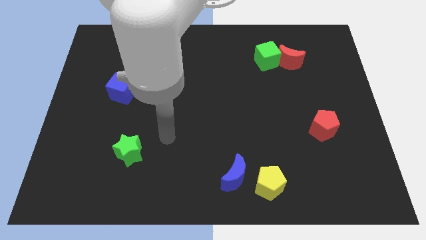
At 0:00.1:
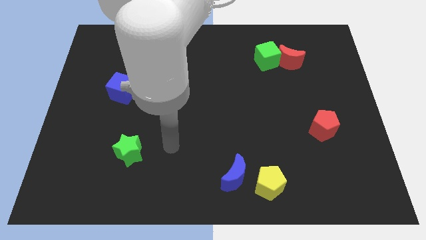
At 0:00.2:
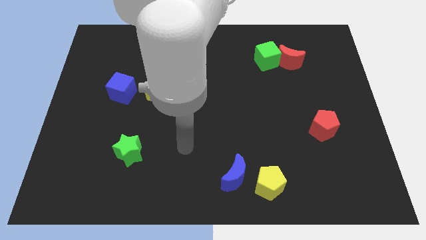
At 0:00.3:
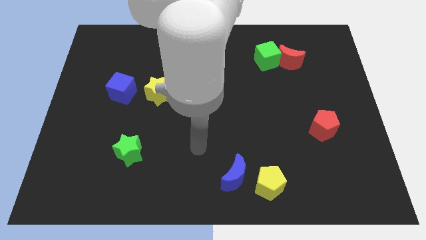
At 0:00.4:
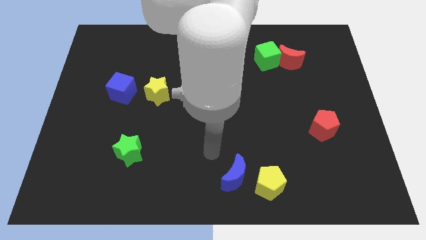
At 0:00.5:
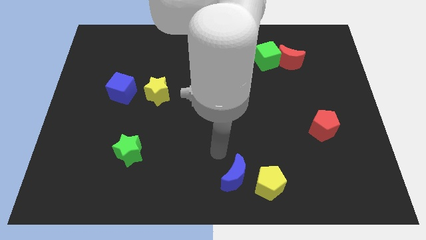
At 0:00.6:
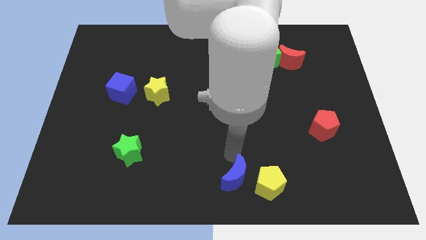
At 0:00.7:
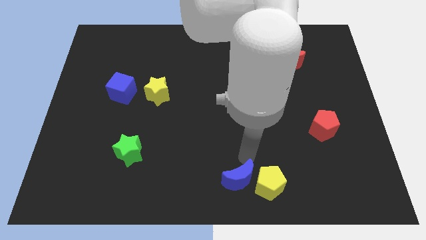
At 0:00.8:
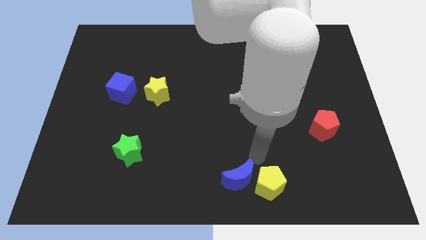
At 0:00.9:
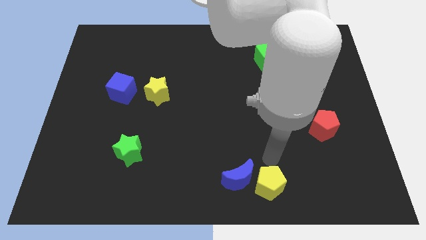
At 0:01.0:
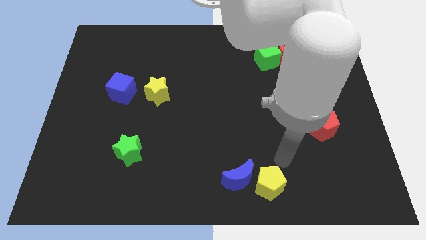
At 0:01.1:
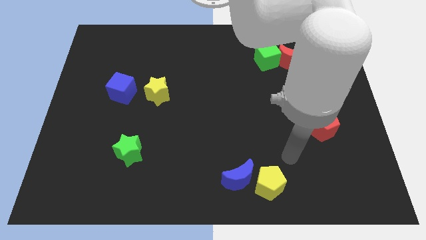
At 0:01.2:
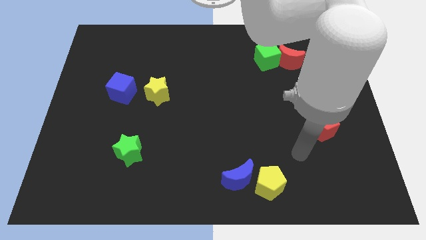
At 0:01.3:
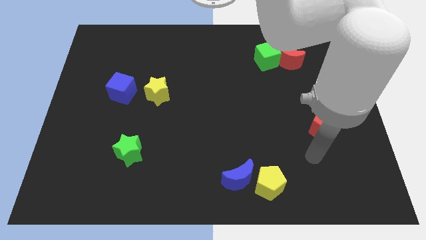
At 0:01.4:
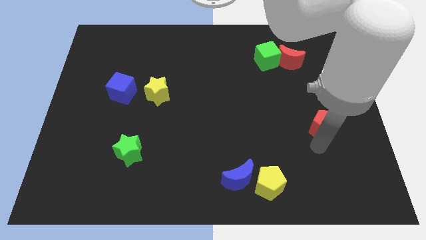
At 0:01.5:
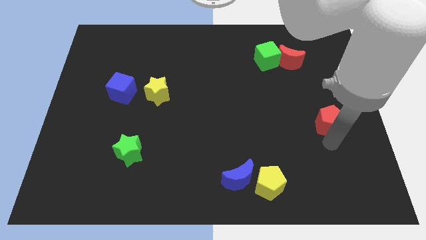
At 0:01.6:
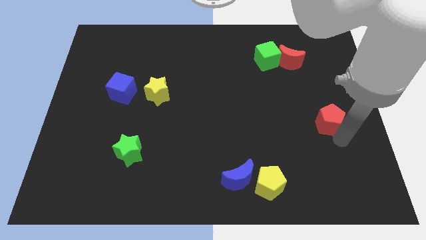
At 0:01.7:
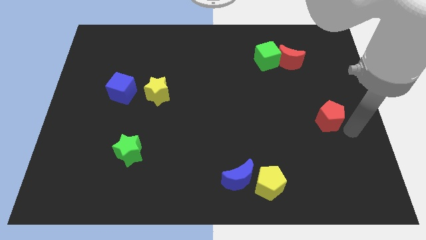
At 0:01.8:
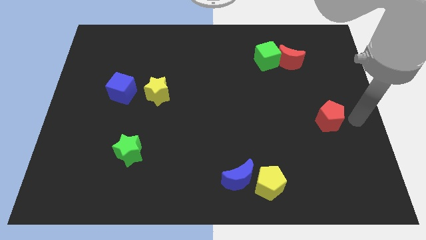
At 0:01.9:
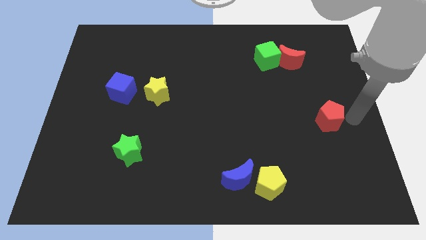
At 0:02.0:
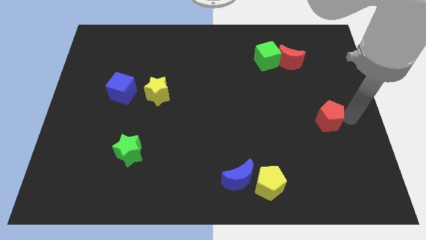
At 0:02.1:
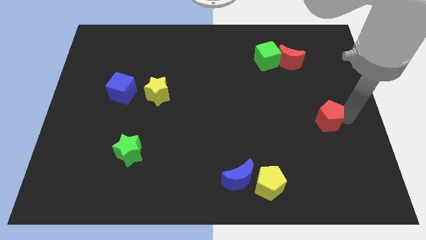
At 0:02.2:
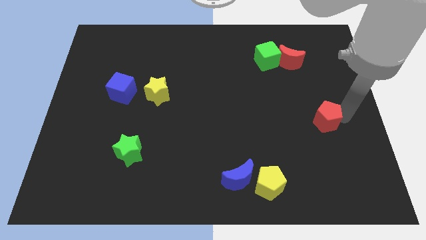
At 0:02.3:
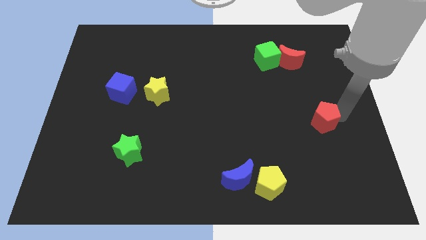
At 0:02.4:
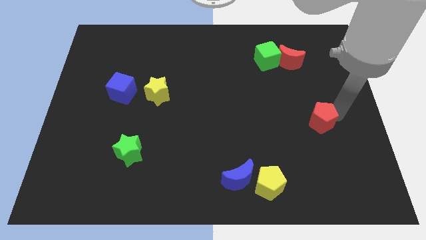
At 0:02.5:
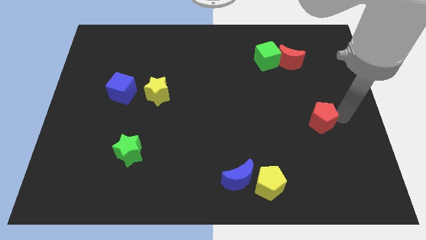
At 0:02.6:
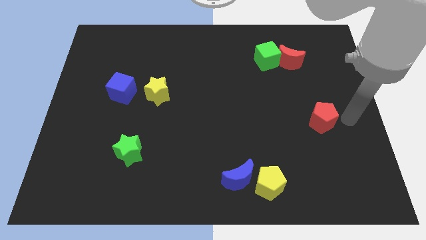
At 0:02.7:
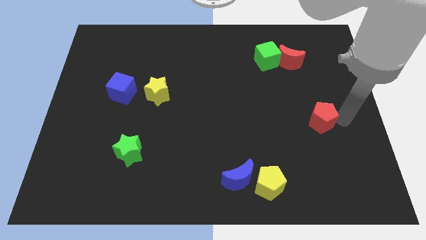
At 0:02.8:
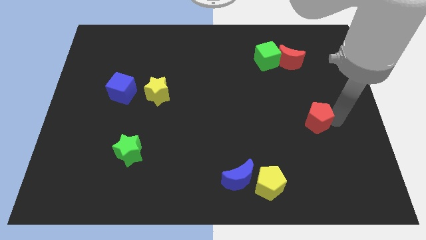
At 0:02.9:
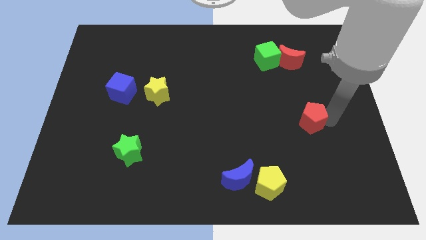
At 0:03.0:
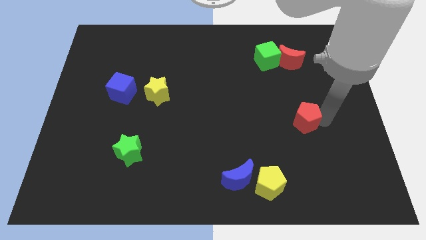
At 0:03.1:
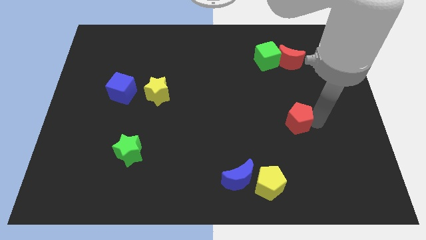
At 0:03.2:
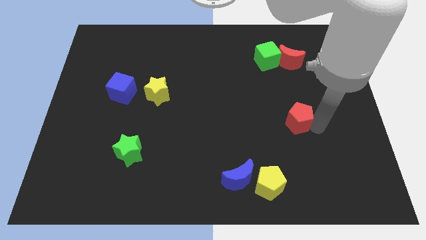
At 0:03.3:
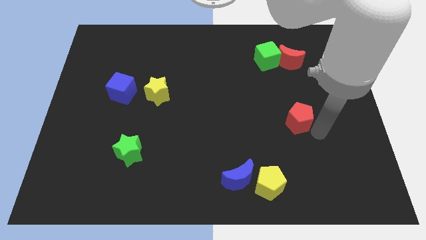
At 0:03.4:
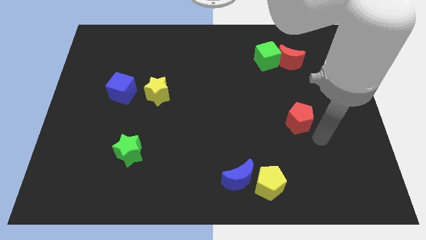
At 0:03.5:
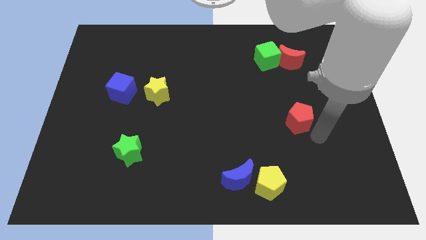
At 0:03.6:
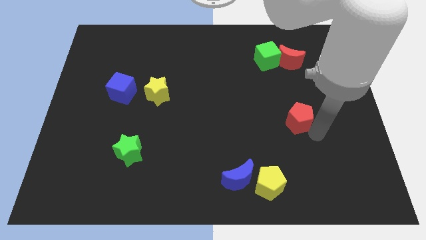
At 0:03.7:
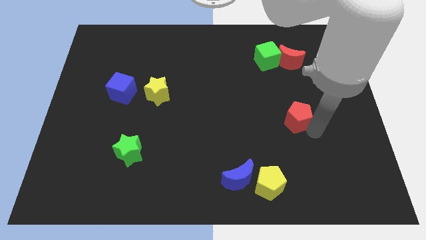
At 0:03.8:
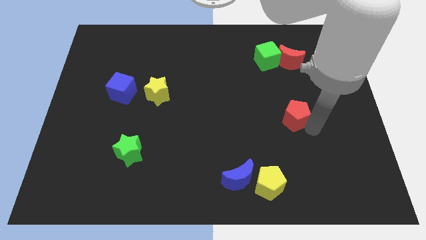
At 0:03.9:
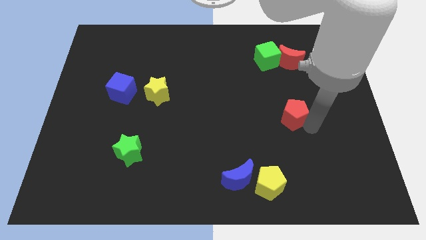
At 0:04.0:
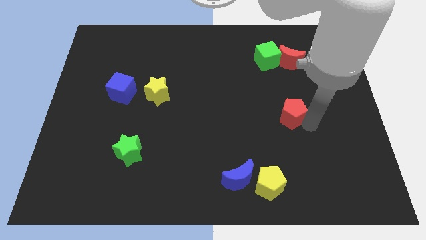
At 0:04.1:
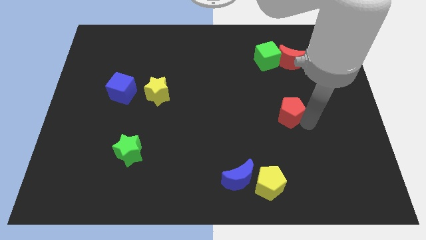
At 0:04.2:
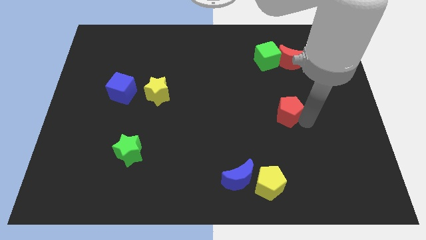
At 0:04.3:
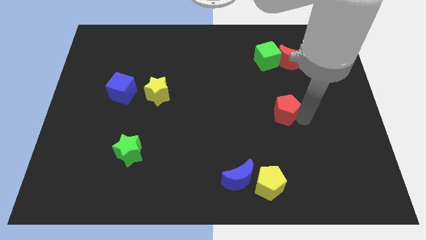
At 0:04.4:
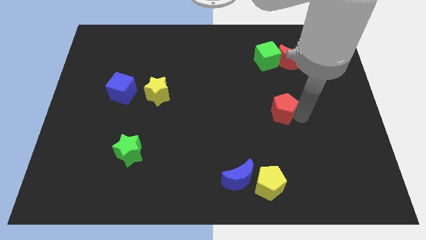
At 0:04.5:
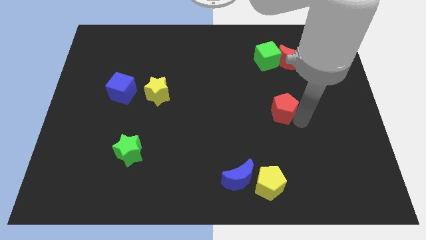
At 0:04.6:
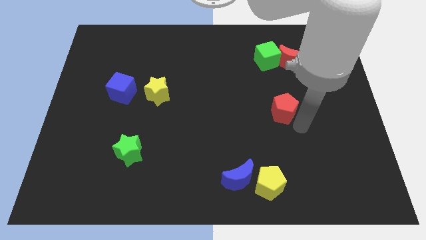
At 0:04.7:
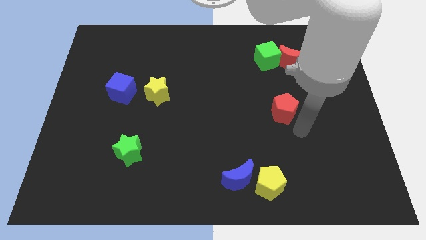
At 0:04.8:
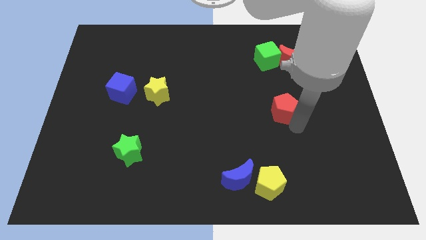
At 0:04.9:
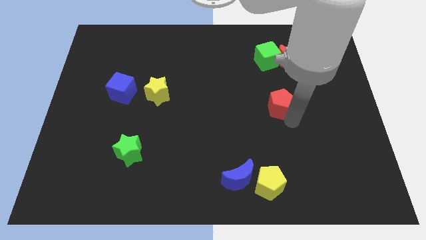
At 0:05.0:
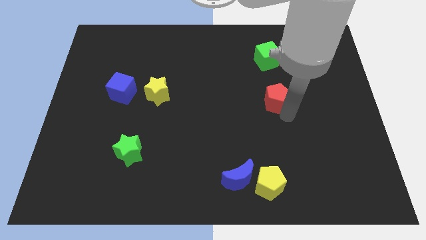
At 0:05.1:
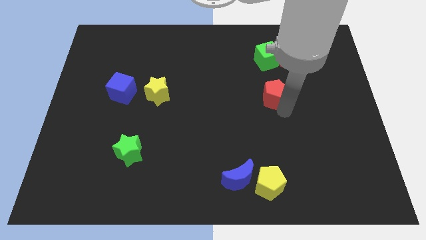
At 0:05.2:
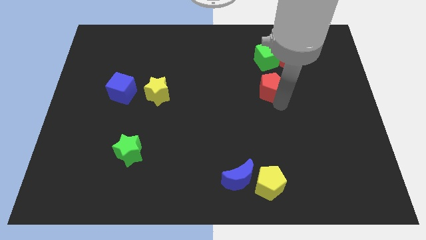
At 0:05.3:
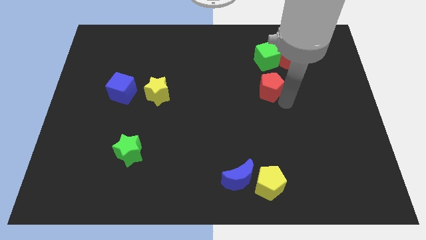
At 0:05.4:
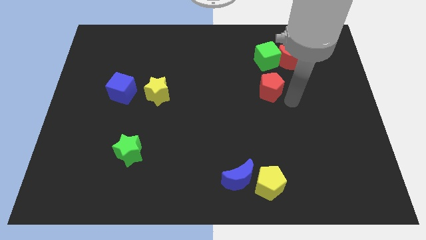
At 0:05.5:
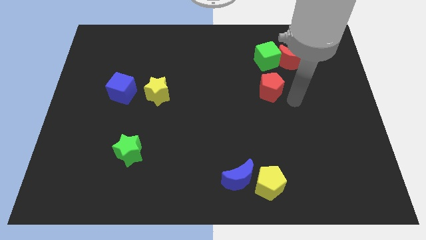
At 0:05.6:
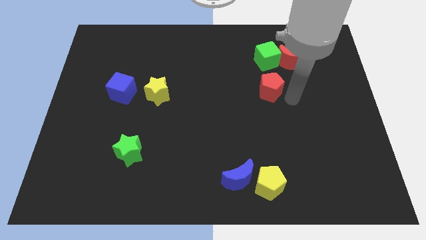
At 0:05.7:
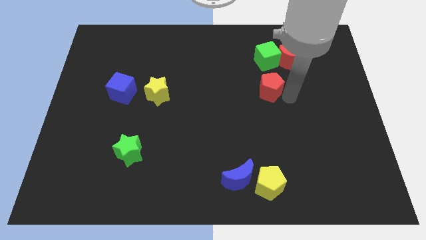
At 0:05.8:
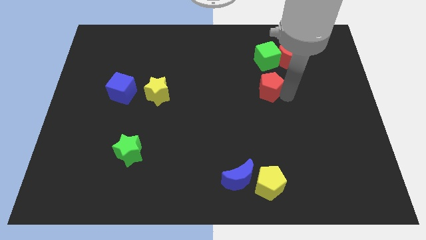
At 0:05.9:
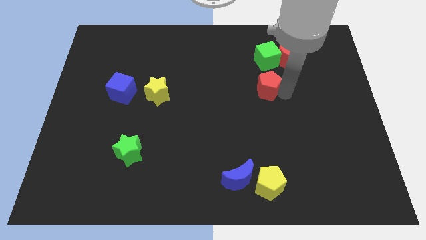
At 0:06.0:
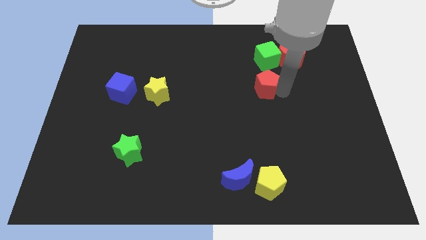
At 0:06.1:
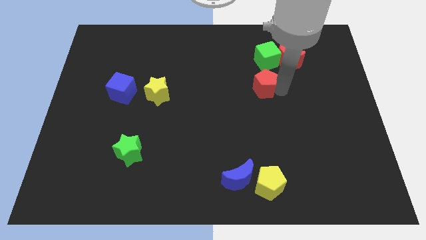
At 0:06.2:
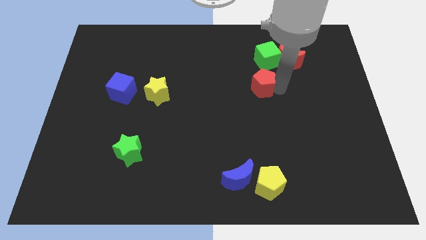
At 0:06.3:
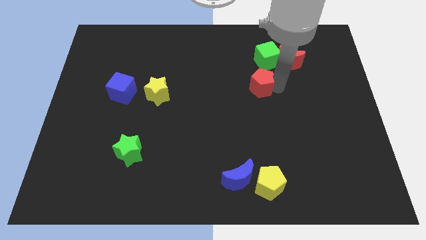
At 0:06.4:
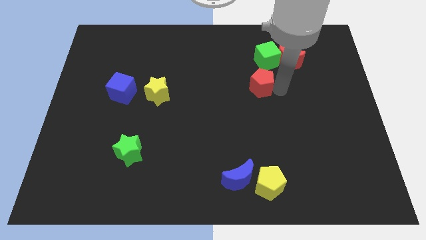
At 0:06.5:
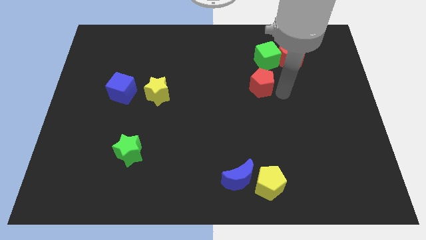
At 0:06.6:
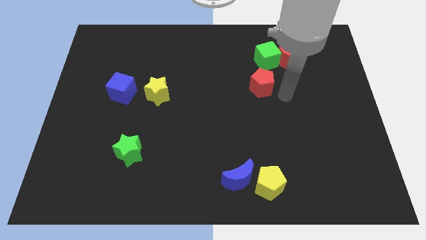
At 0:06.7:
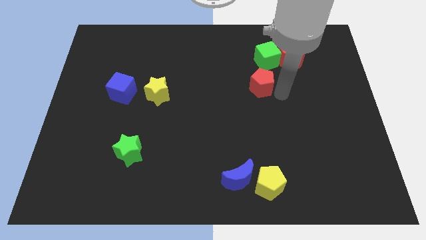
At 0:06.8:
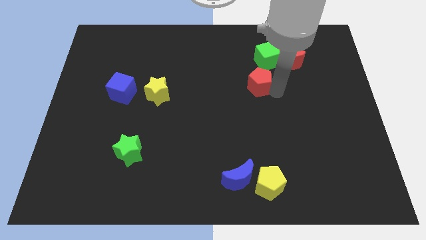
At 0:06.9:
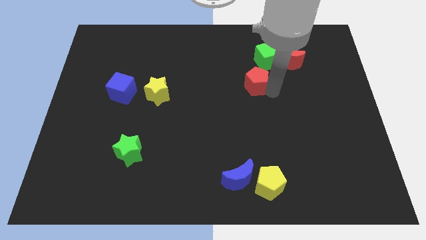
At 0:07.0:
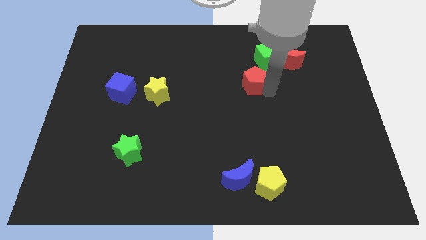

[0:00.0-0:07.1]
push the red pentagon upwards and then left

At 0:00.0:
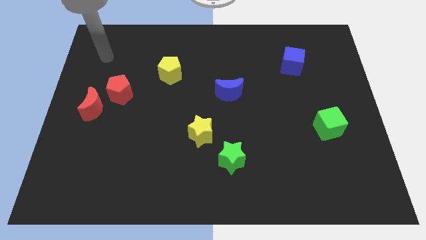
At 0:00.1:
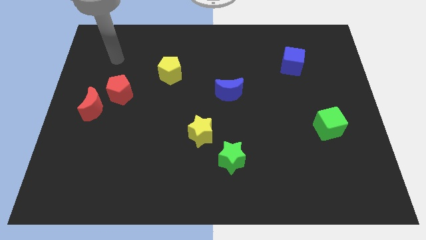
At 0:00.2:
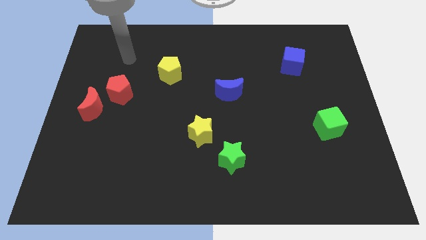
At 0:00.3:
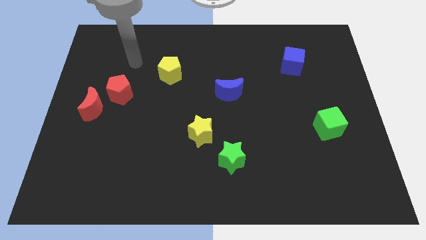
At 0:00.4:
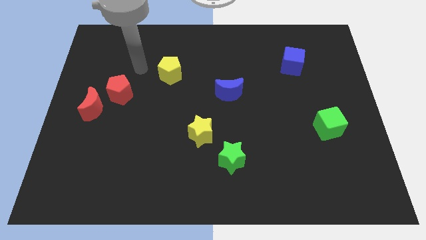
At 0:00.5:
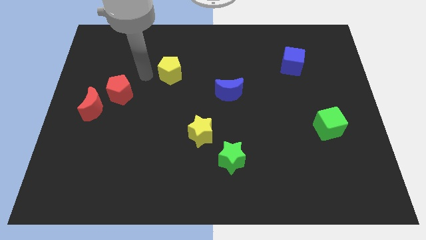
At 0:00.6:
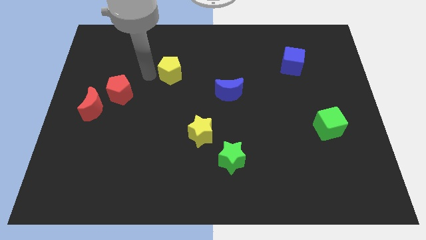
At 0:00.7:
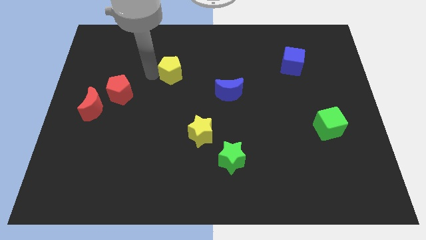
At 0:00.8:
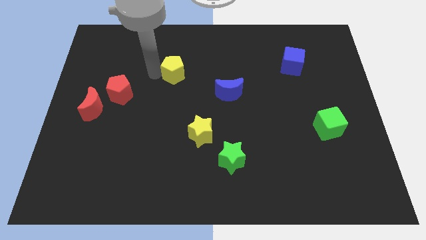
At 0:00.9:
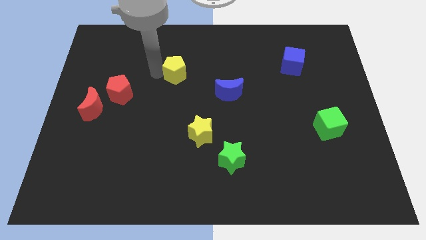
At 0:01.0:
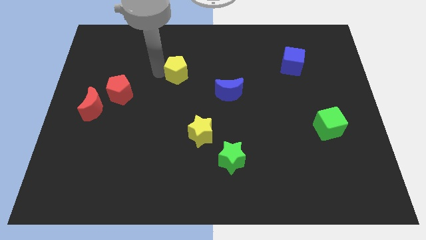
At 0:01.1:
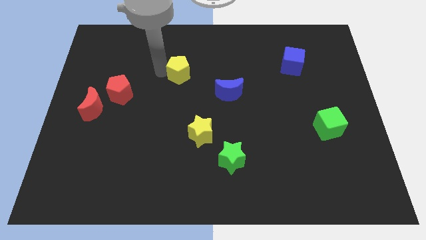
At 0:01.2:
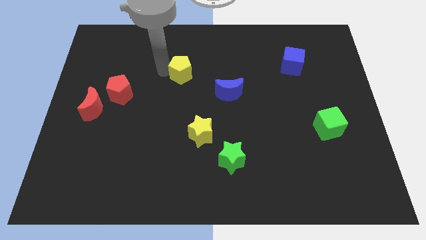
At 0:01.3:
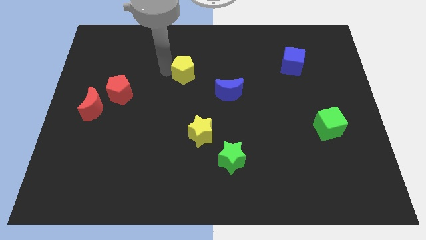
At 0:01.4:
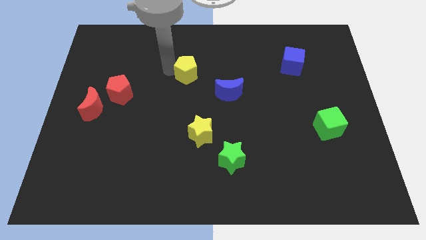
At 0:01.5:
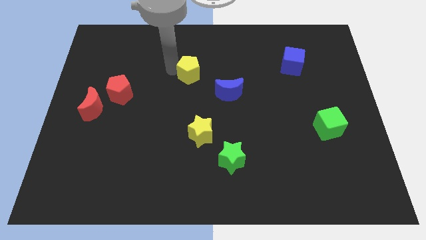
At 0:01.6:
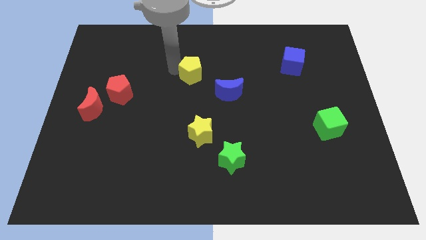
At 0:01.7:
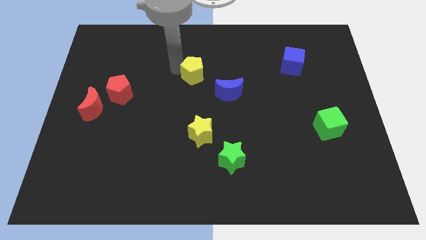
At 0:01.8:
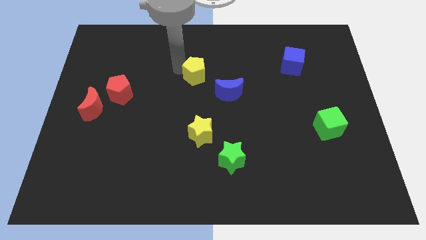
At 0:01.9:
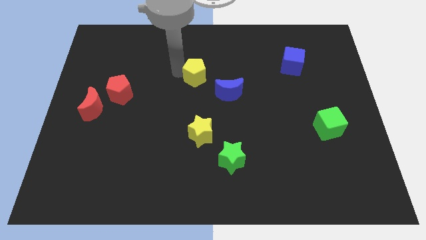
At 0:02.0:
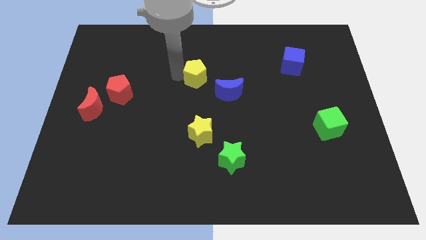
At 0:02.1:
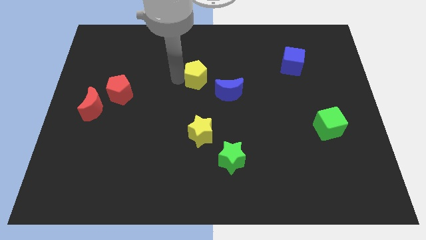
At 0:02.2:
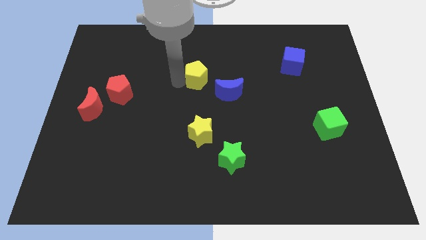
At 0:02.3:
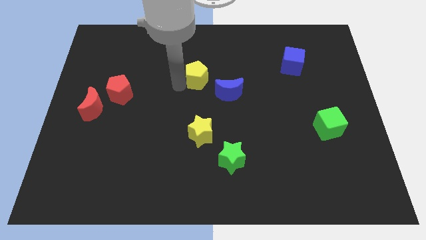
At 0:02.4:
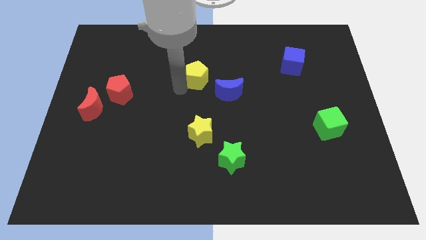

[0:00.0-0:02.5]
slightly move the yellow pentagon to the right
